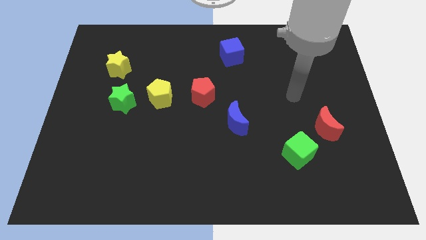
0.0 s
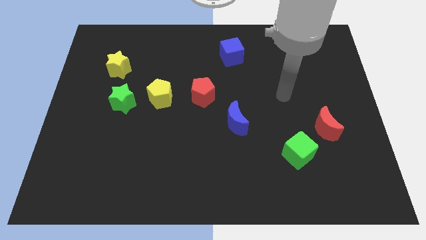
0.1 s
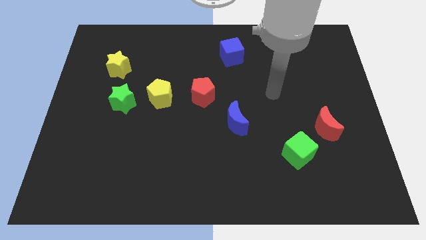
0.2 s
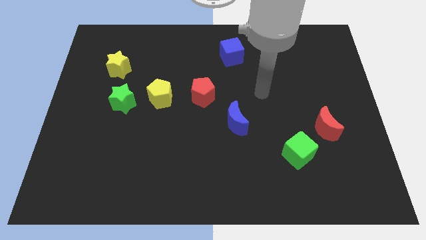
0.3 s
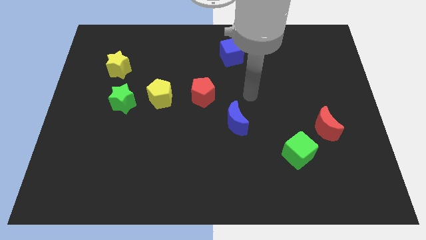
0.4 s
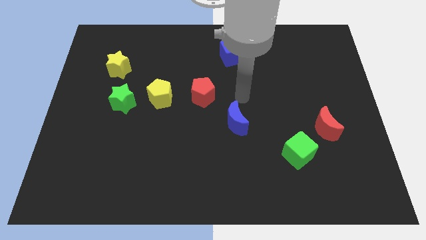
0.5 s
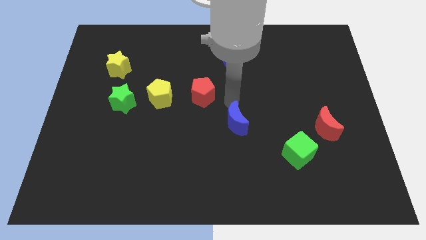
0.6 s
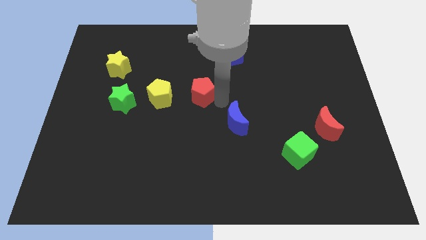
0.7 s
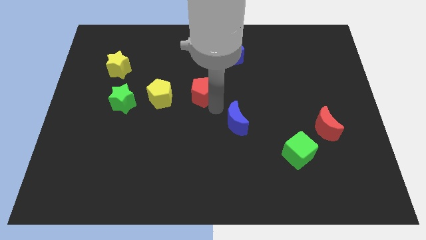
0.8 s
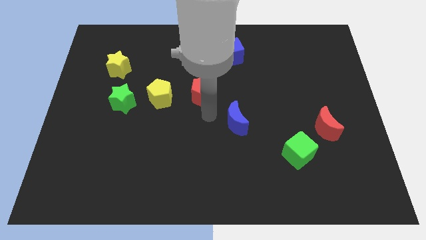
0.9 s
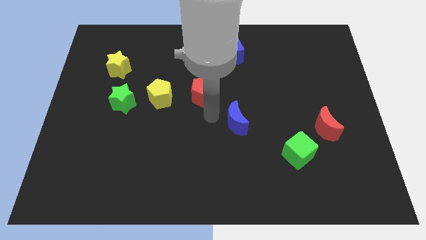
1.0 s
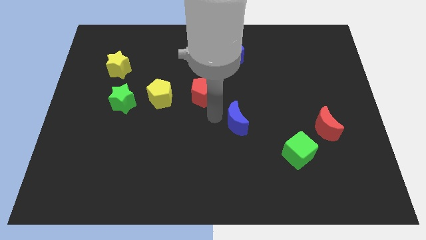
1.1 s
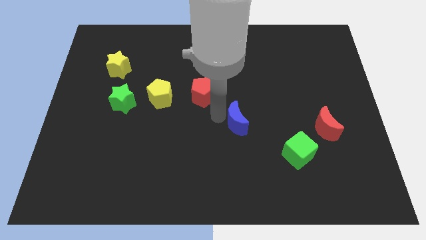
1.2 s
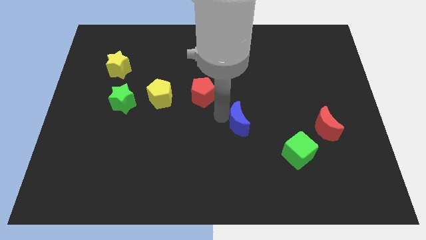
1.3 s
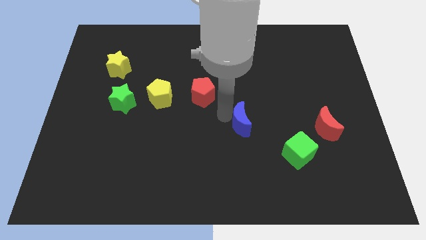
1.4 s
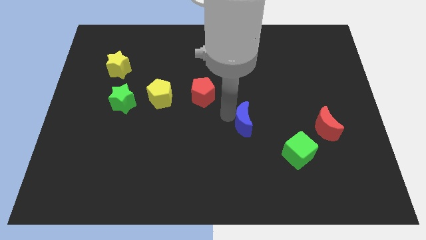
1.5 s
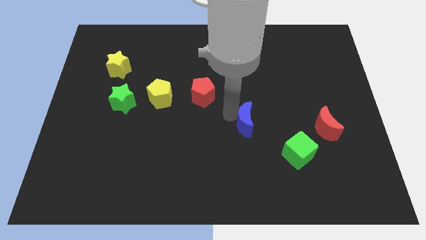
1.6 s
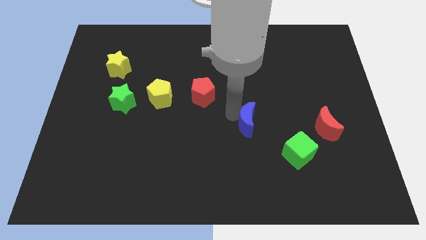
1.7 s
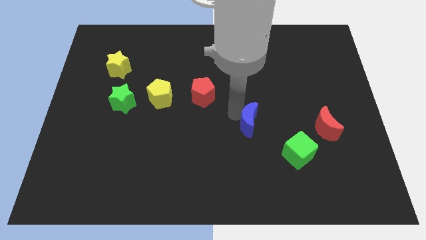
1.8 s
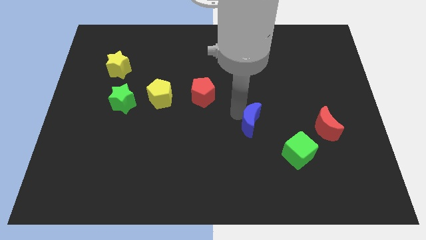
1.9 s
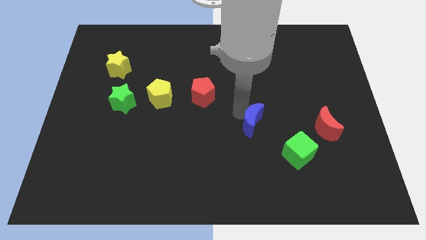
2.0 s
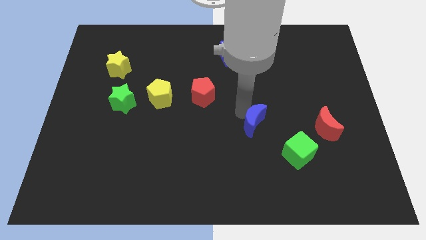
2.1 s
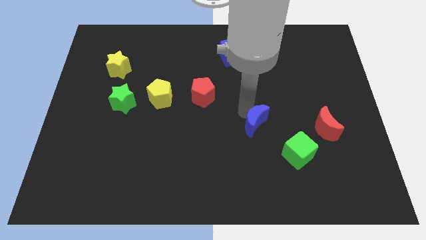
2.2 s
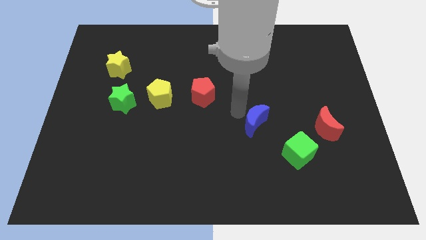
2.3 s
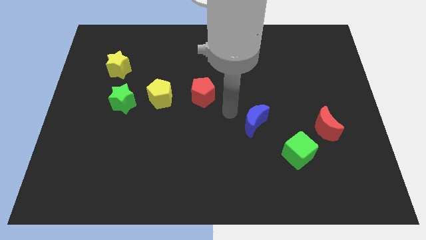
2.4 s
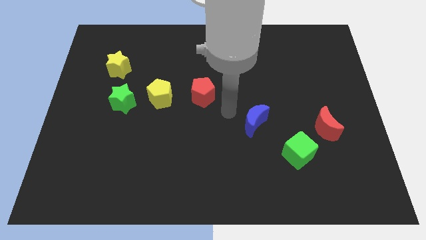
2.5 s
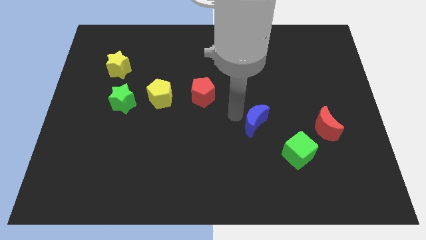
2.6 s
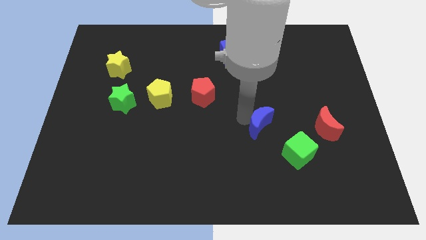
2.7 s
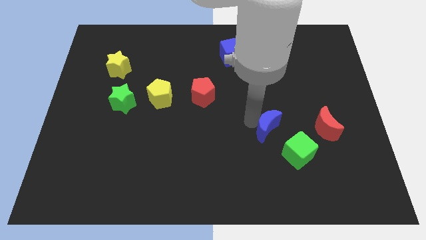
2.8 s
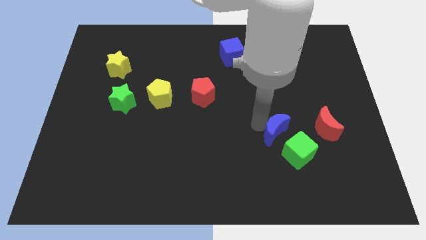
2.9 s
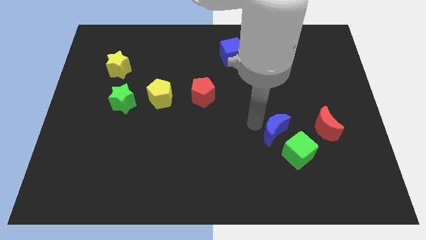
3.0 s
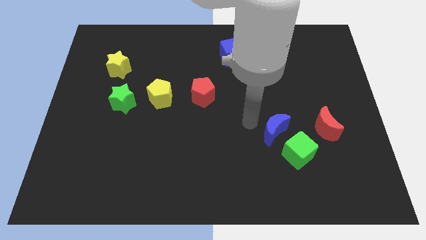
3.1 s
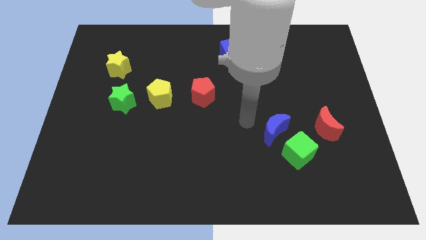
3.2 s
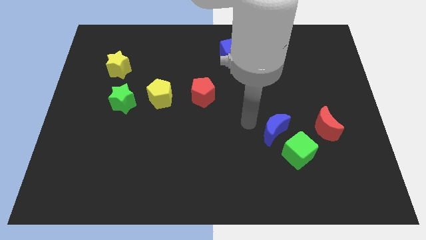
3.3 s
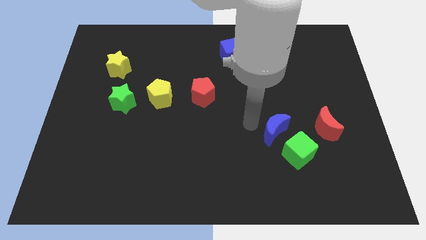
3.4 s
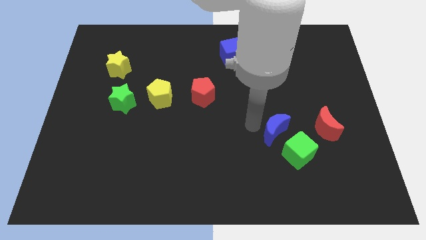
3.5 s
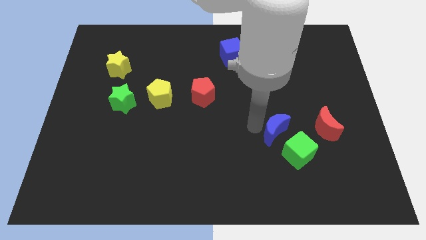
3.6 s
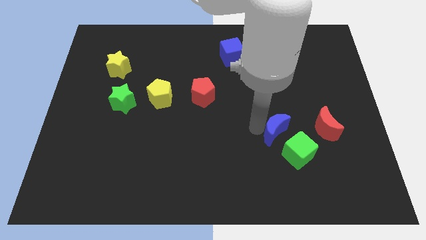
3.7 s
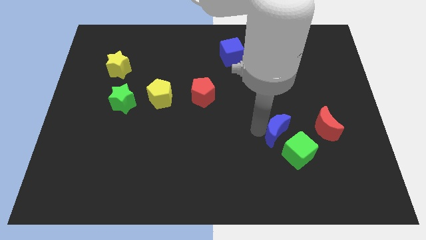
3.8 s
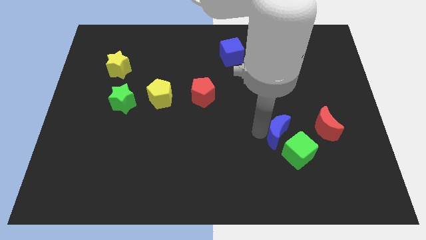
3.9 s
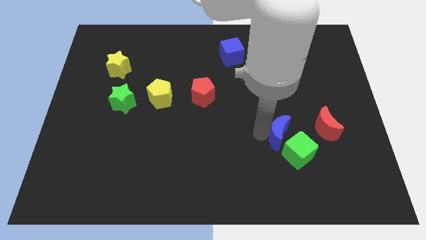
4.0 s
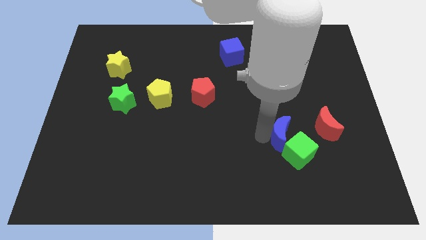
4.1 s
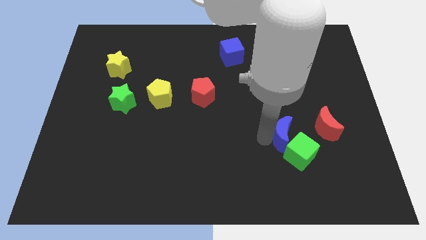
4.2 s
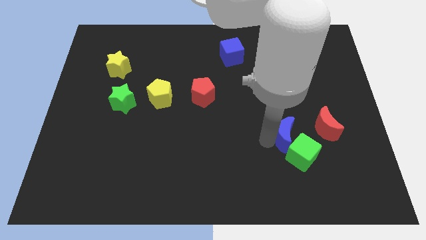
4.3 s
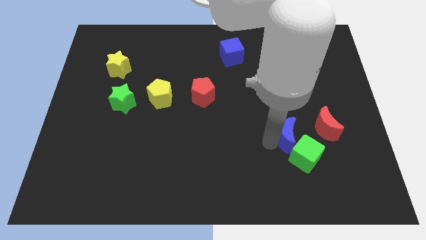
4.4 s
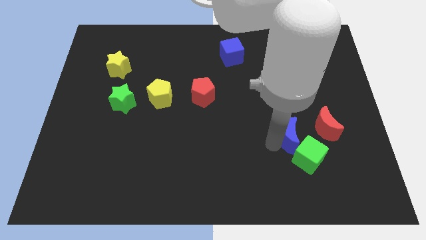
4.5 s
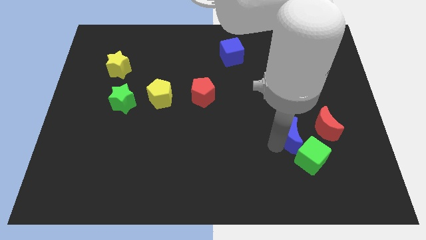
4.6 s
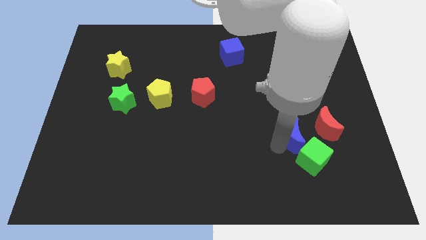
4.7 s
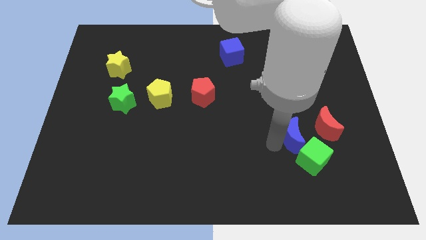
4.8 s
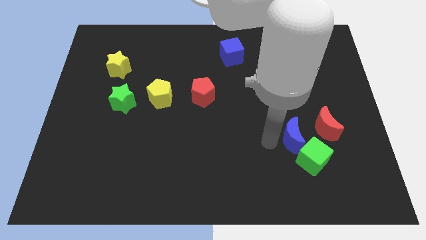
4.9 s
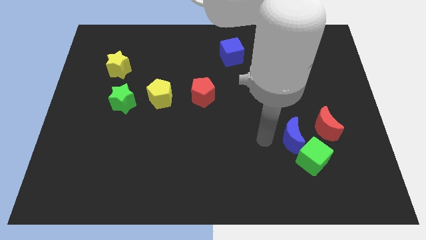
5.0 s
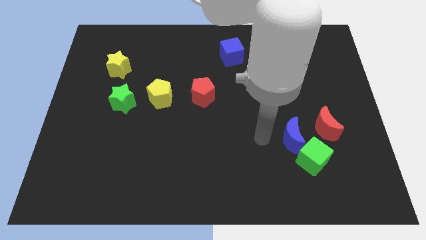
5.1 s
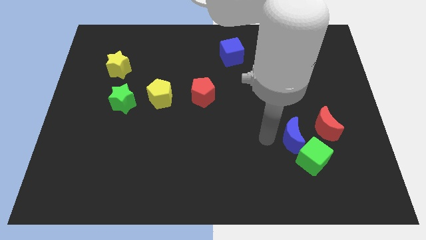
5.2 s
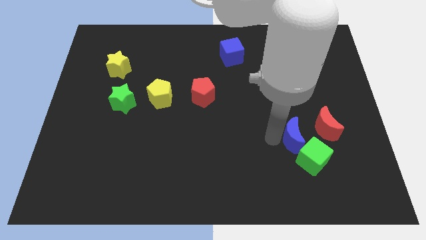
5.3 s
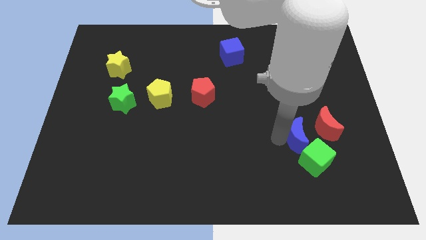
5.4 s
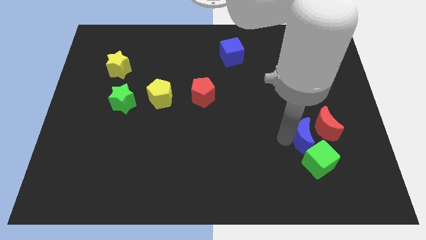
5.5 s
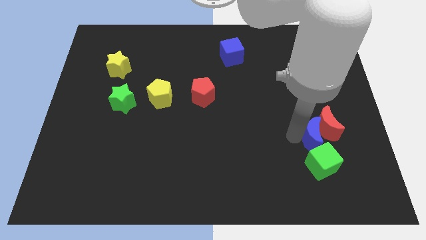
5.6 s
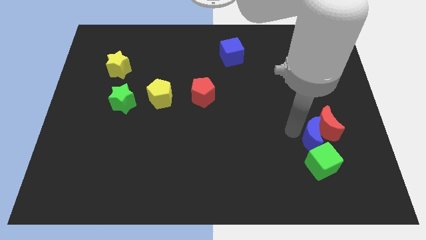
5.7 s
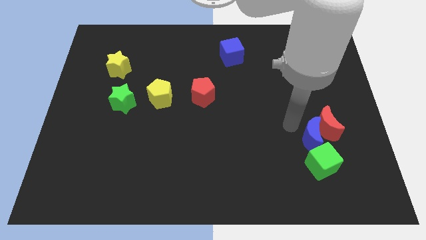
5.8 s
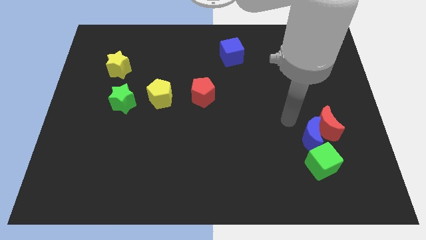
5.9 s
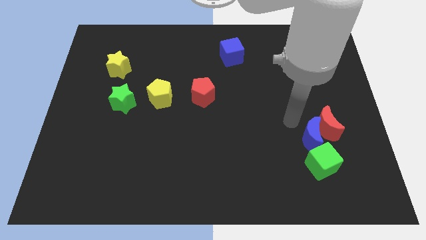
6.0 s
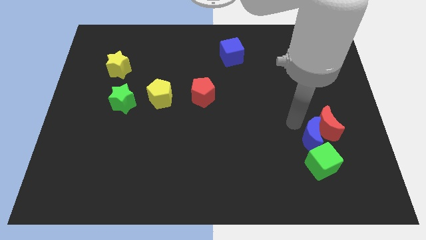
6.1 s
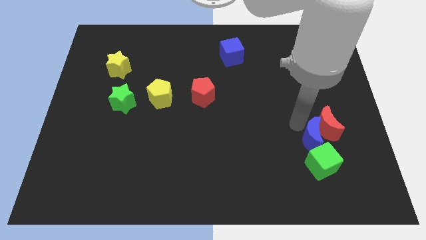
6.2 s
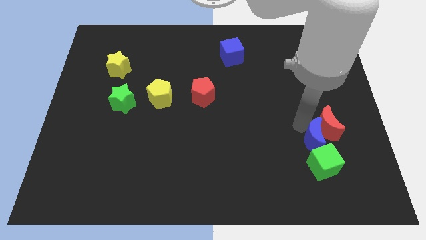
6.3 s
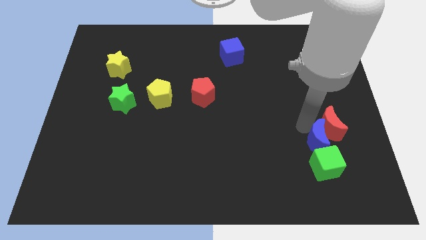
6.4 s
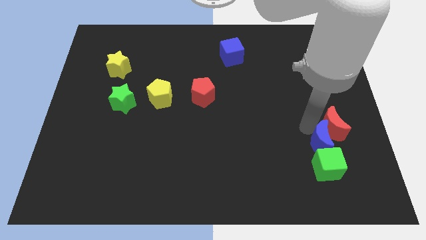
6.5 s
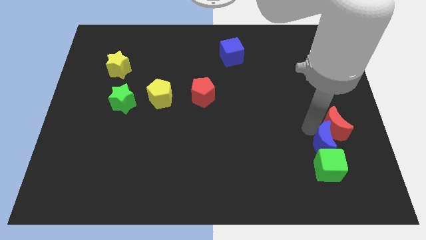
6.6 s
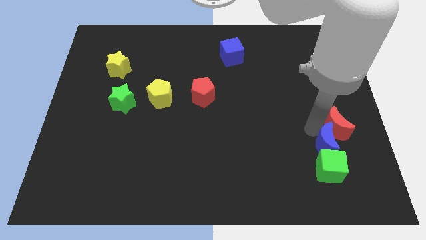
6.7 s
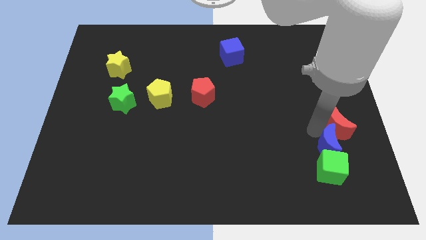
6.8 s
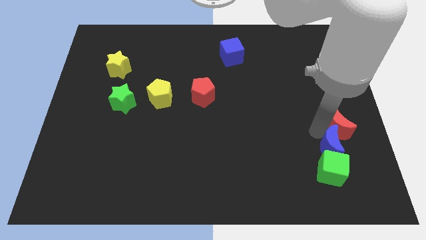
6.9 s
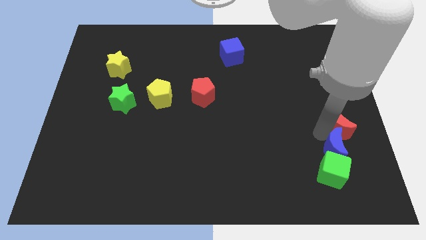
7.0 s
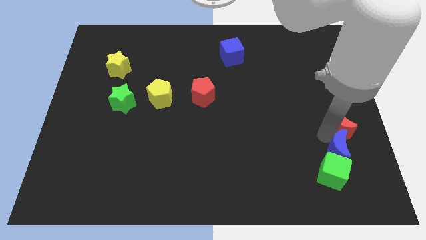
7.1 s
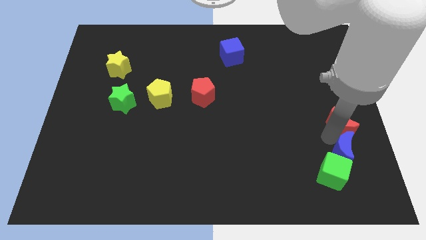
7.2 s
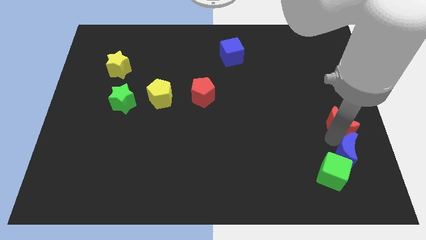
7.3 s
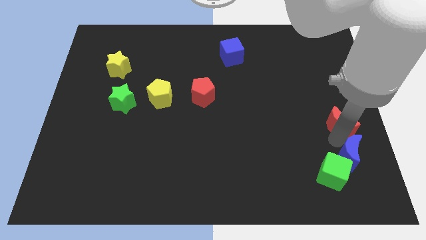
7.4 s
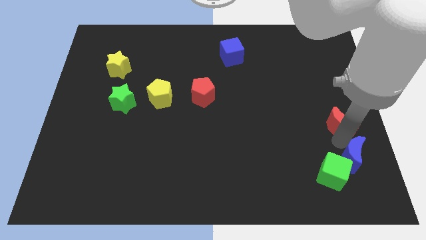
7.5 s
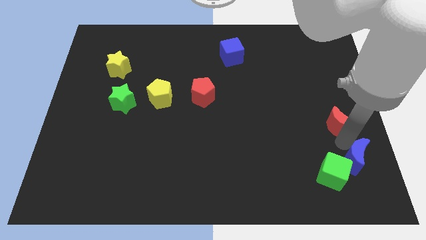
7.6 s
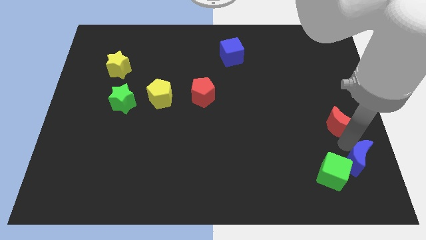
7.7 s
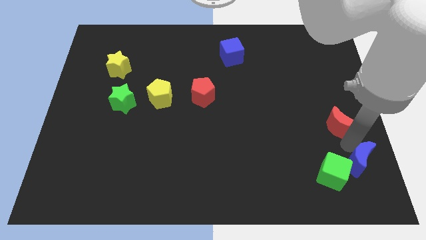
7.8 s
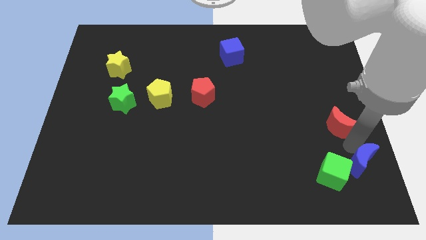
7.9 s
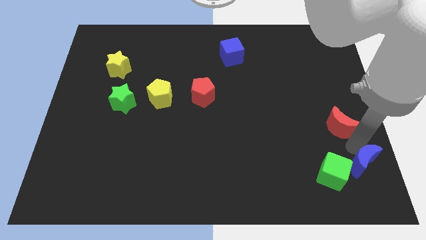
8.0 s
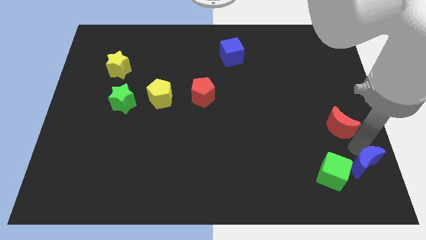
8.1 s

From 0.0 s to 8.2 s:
put the blue moon to the bottom right
